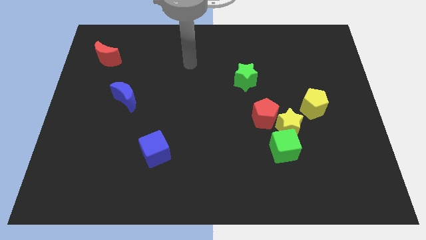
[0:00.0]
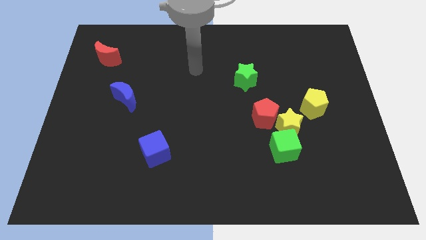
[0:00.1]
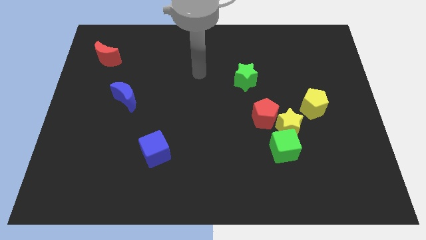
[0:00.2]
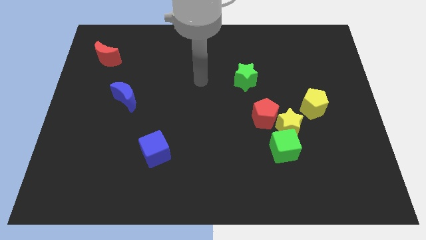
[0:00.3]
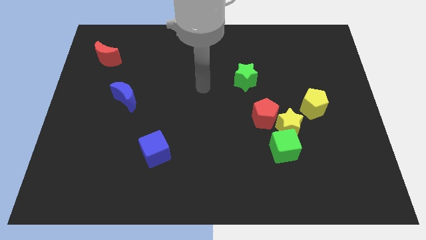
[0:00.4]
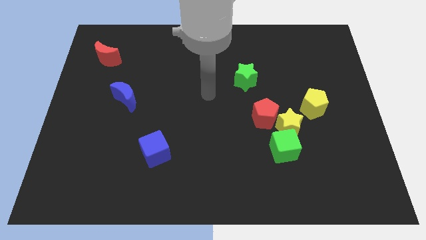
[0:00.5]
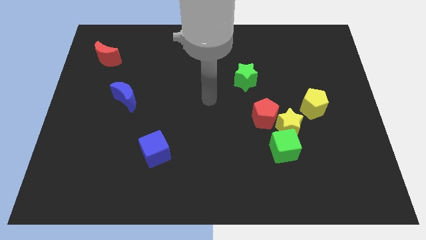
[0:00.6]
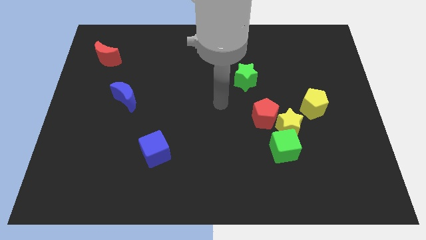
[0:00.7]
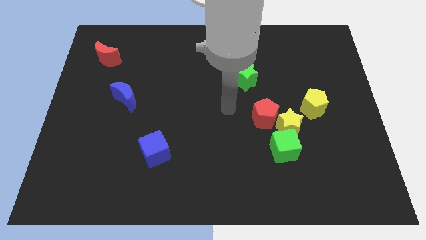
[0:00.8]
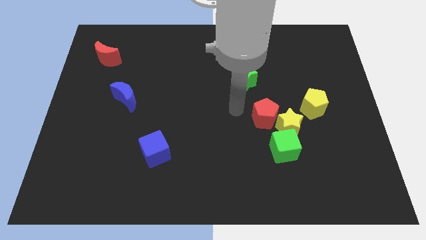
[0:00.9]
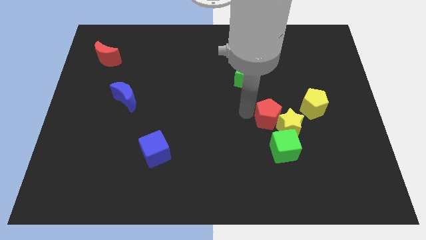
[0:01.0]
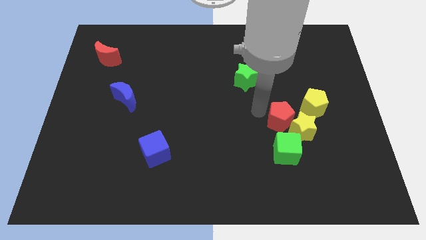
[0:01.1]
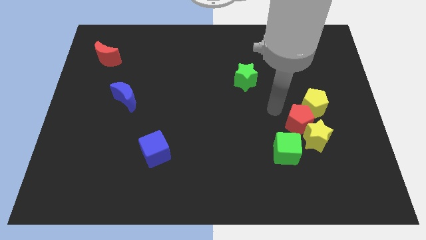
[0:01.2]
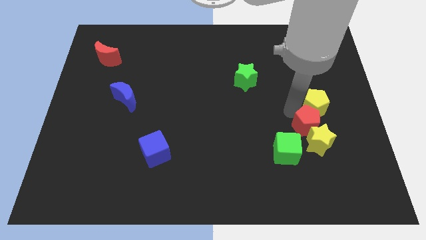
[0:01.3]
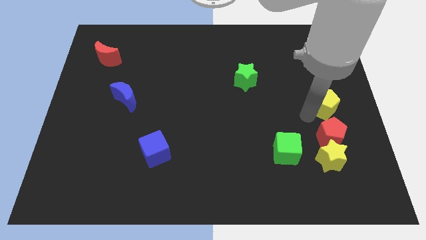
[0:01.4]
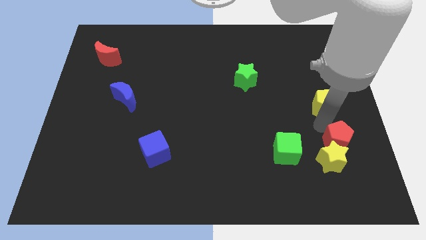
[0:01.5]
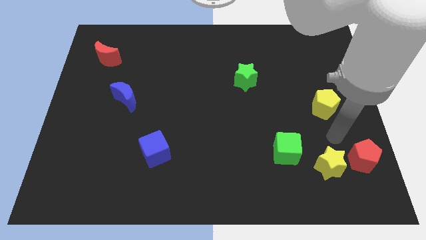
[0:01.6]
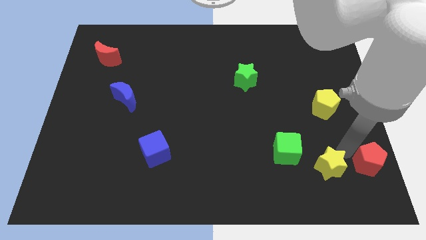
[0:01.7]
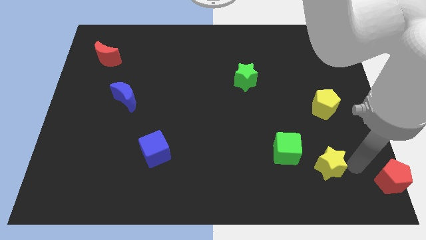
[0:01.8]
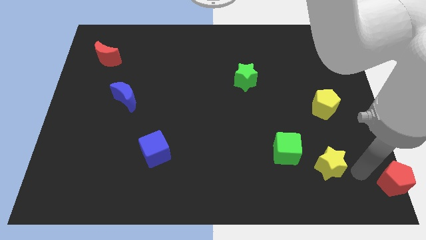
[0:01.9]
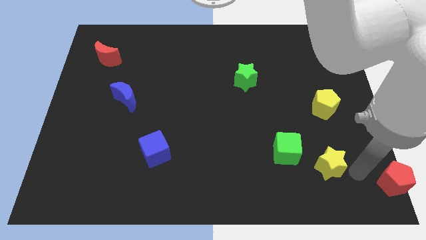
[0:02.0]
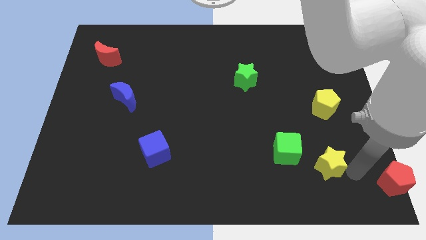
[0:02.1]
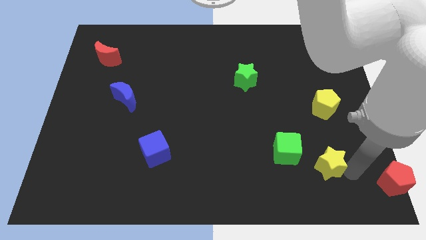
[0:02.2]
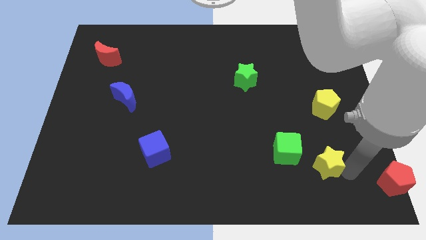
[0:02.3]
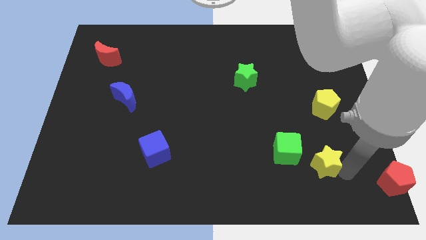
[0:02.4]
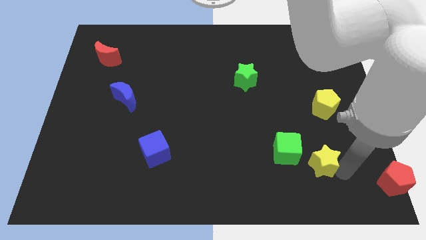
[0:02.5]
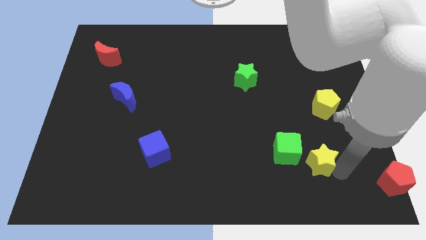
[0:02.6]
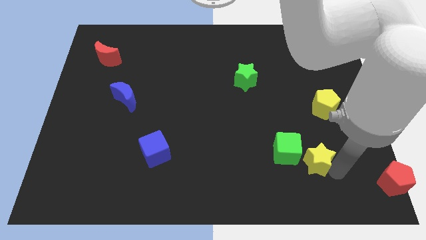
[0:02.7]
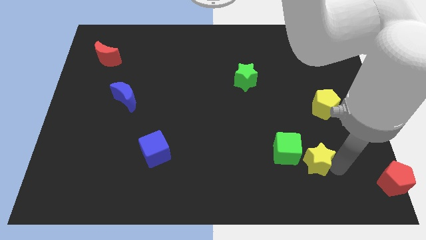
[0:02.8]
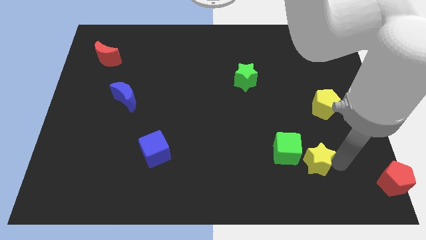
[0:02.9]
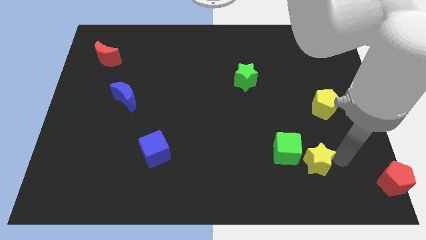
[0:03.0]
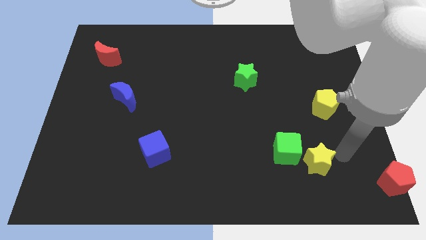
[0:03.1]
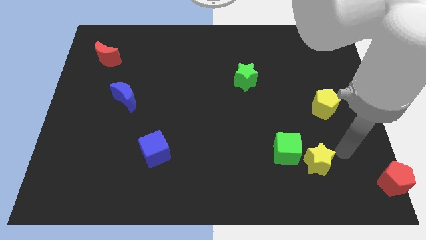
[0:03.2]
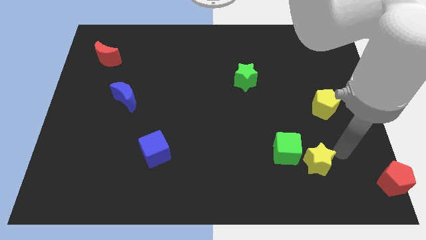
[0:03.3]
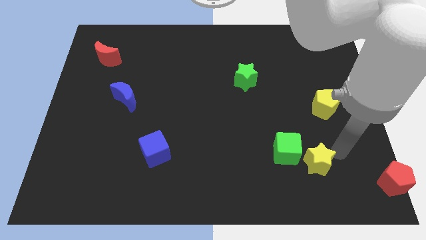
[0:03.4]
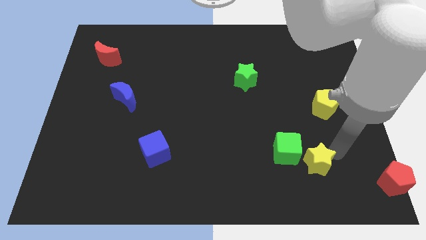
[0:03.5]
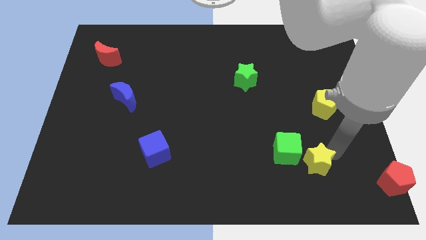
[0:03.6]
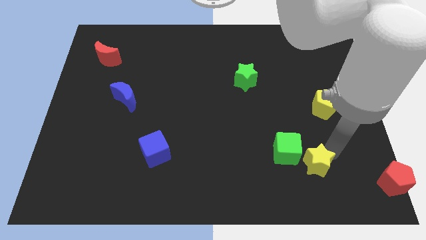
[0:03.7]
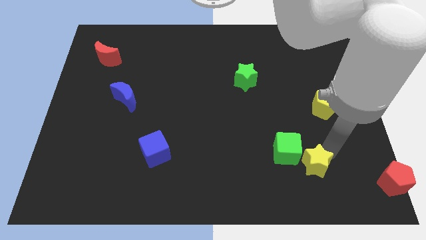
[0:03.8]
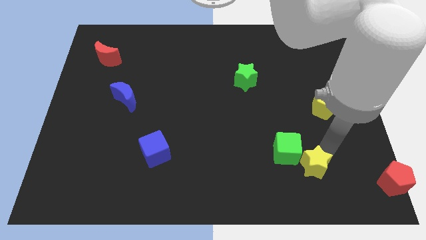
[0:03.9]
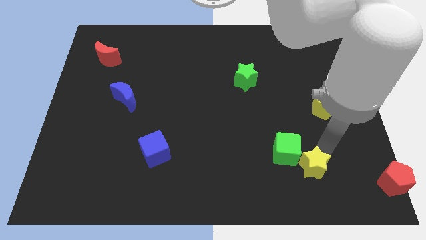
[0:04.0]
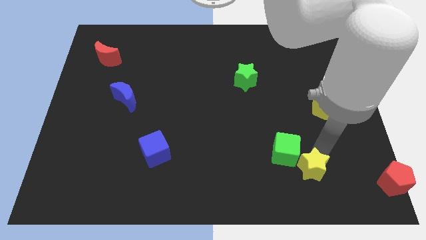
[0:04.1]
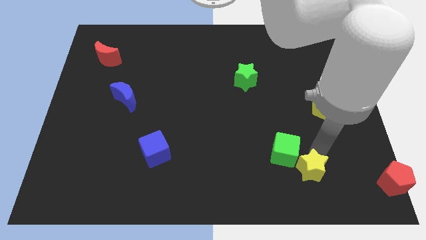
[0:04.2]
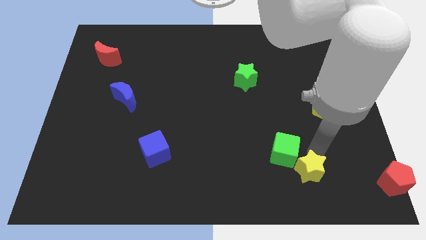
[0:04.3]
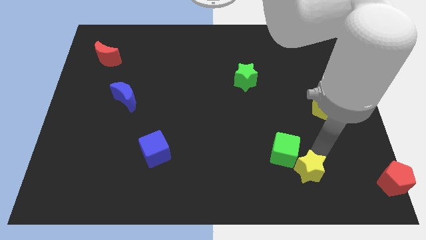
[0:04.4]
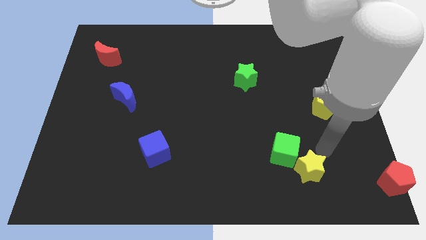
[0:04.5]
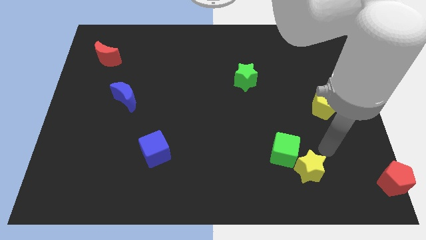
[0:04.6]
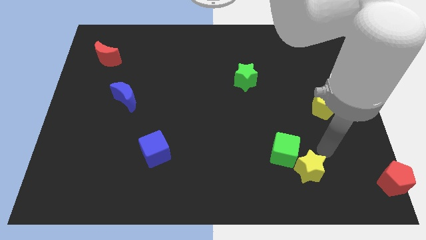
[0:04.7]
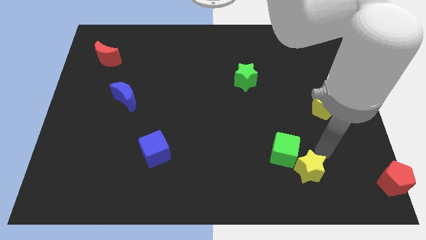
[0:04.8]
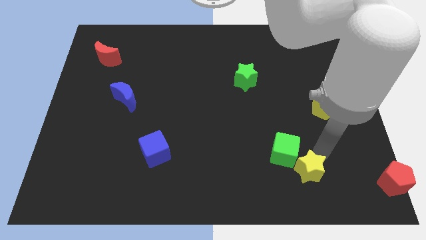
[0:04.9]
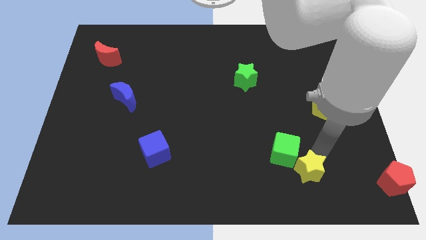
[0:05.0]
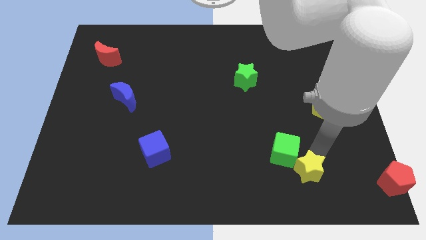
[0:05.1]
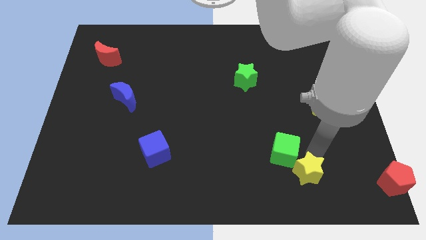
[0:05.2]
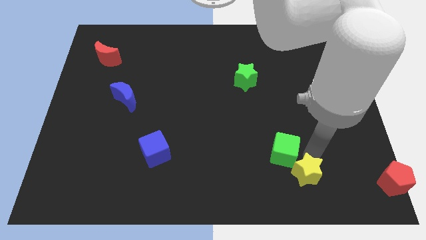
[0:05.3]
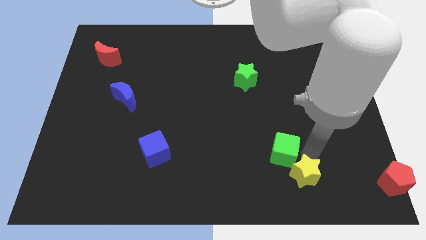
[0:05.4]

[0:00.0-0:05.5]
move the yellow star away from the red pentagon, green cube, and yellow pentagon

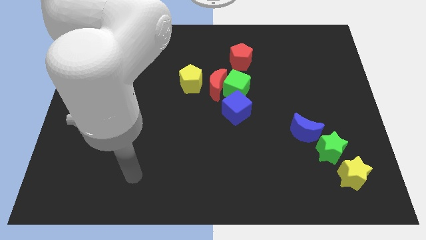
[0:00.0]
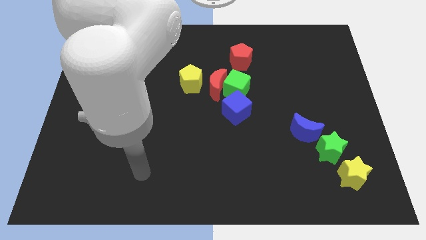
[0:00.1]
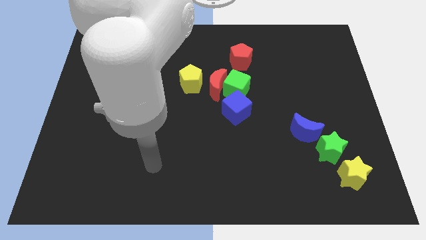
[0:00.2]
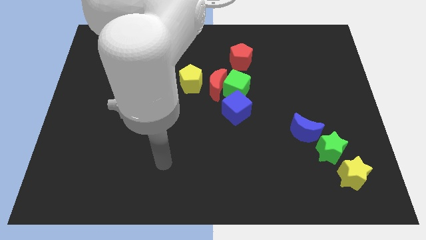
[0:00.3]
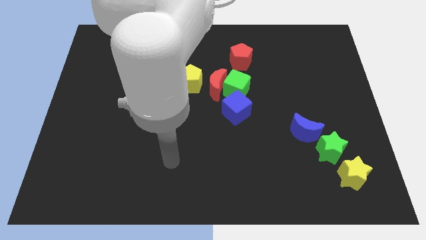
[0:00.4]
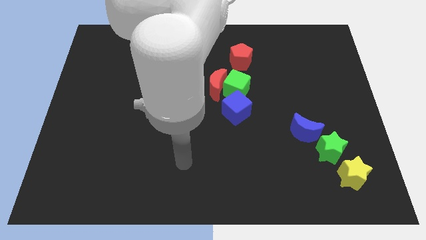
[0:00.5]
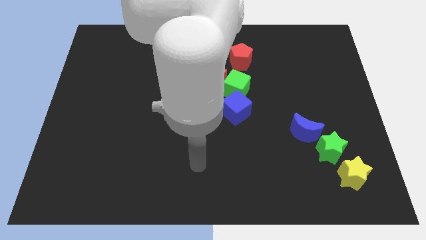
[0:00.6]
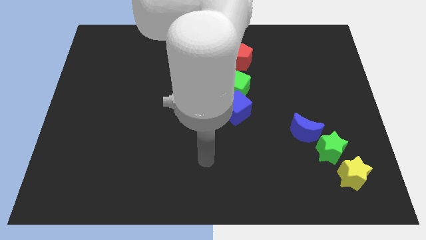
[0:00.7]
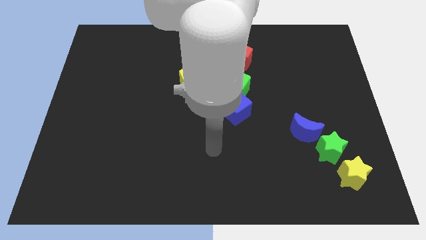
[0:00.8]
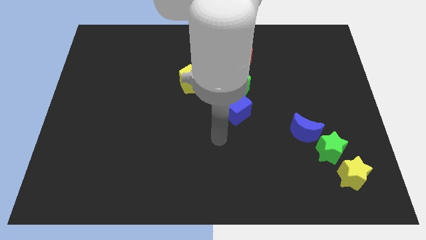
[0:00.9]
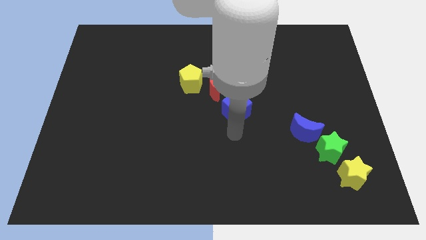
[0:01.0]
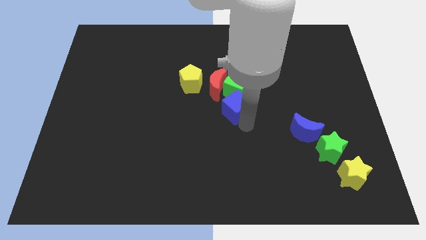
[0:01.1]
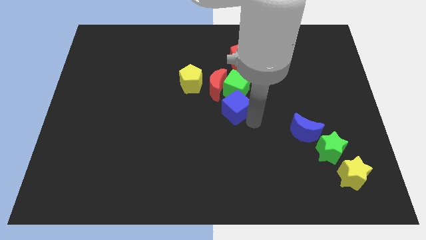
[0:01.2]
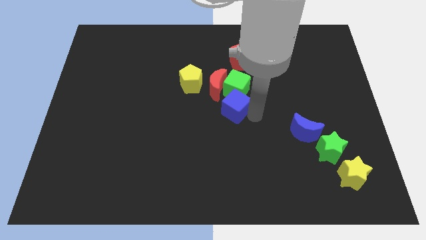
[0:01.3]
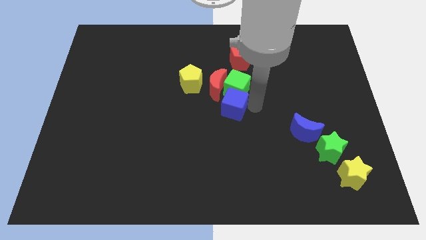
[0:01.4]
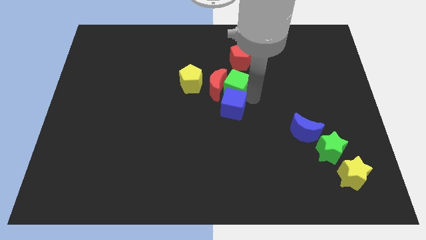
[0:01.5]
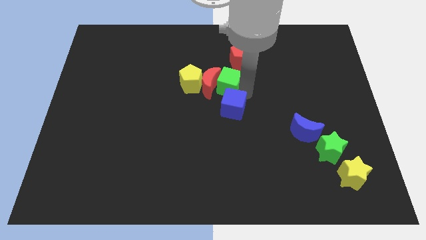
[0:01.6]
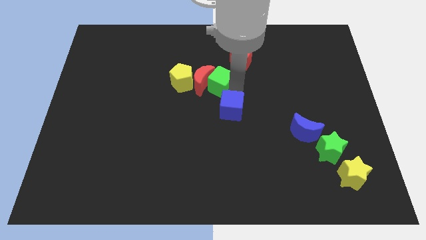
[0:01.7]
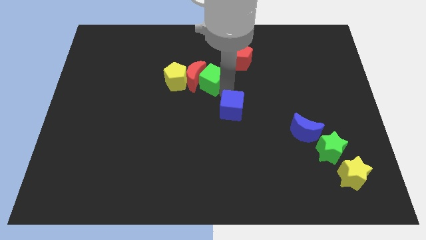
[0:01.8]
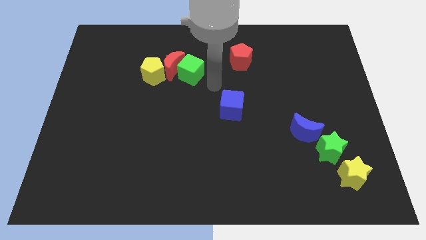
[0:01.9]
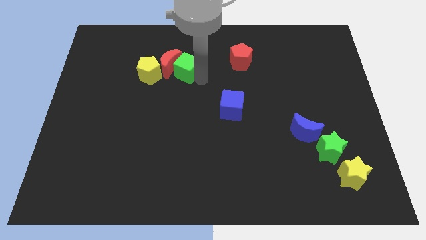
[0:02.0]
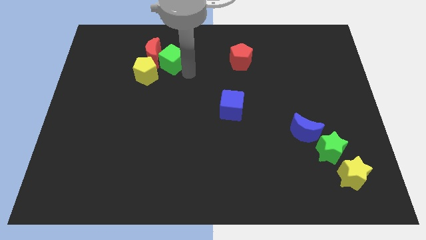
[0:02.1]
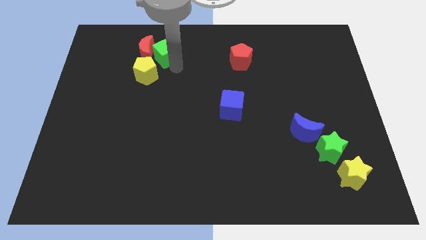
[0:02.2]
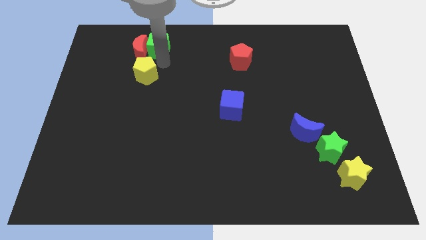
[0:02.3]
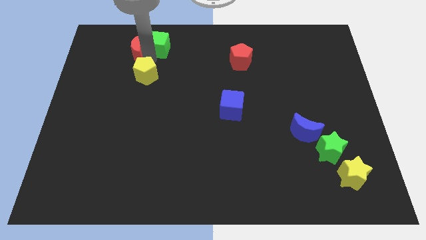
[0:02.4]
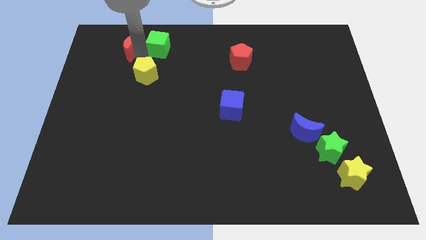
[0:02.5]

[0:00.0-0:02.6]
move the yellow pentagon away from the red moon

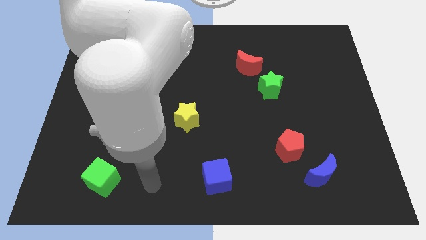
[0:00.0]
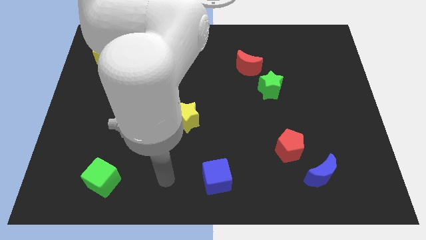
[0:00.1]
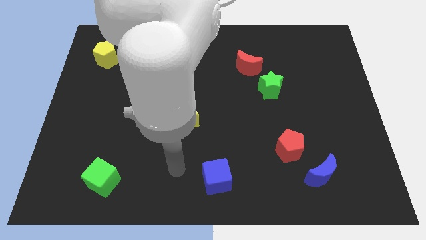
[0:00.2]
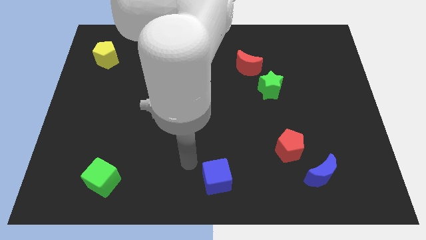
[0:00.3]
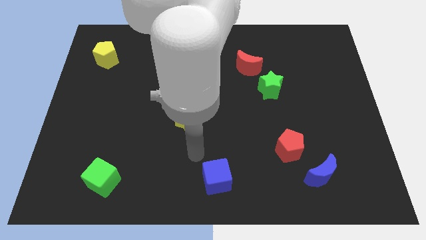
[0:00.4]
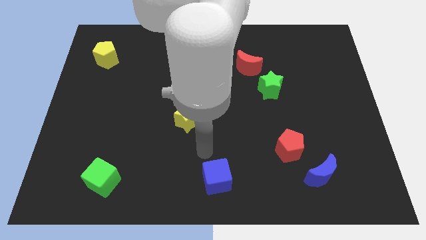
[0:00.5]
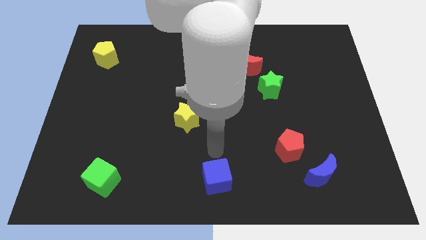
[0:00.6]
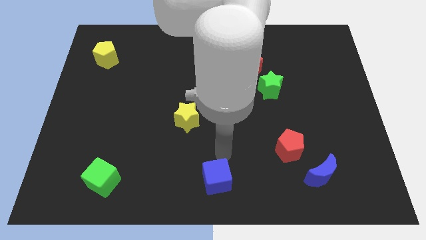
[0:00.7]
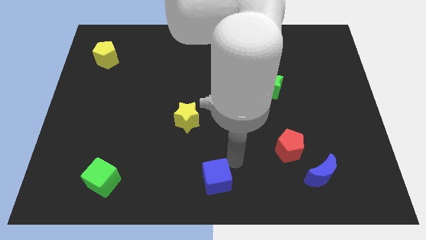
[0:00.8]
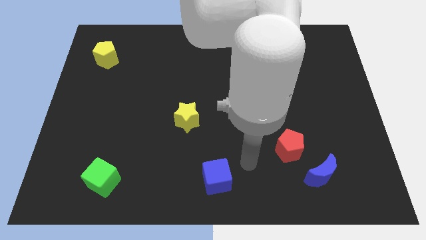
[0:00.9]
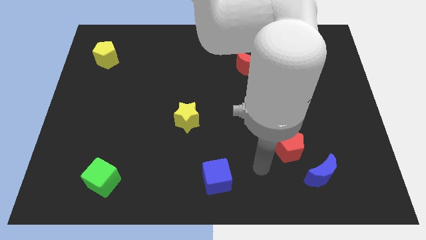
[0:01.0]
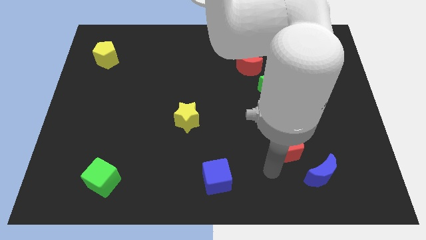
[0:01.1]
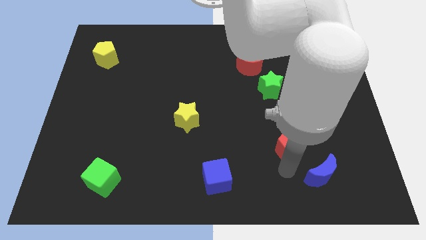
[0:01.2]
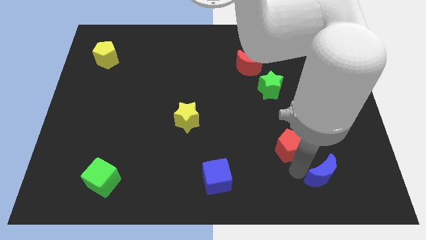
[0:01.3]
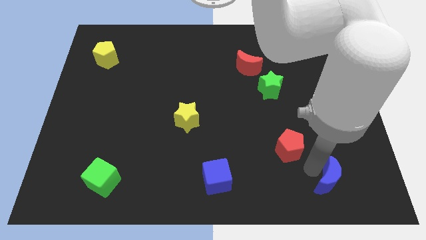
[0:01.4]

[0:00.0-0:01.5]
move the red pentagon away from the blue moon
